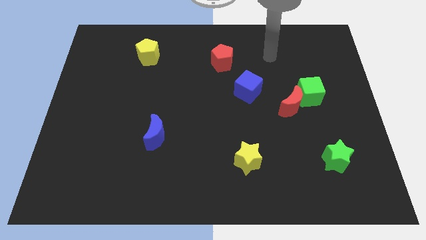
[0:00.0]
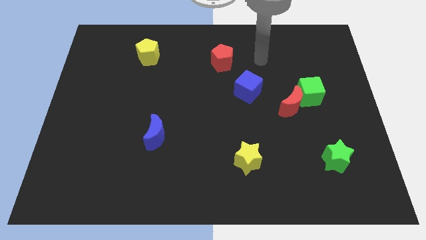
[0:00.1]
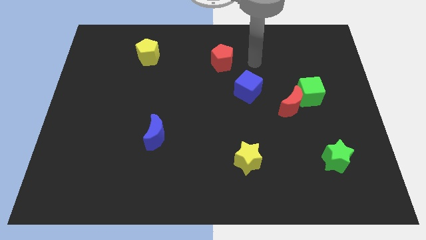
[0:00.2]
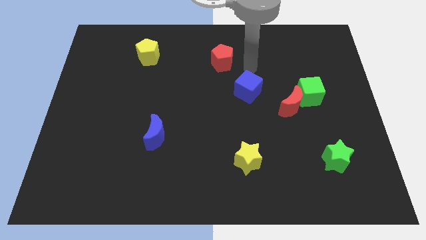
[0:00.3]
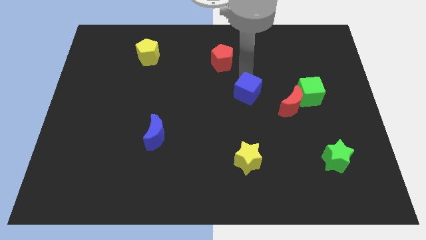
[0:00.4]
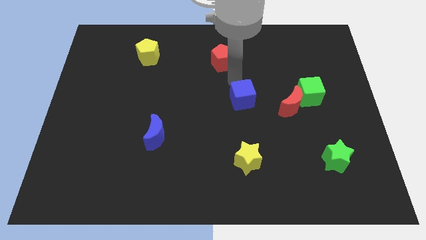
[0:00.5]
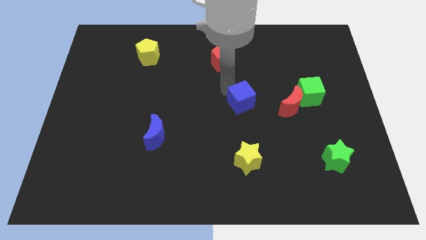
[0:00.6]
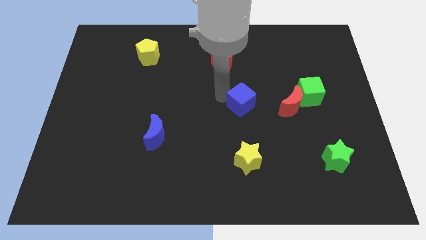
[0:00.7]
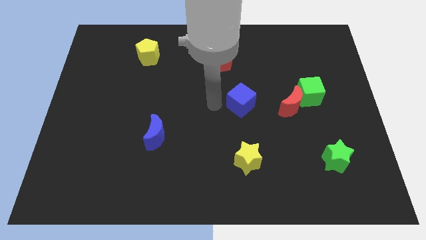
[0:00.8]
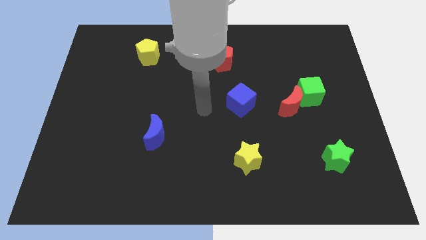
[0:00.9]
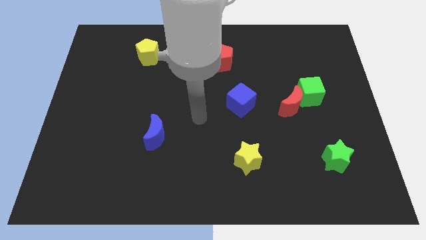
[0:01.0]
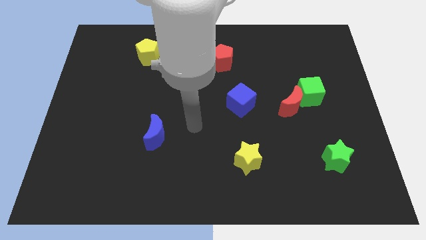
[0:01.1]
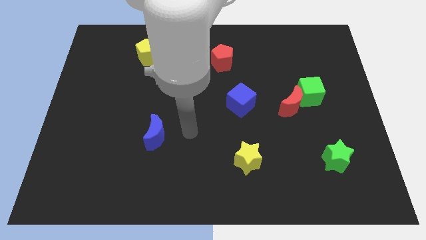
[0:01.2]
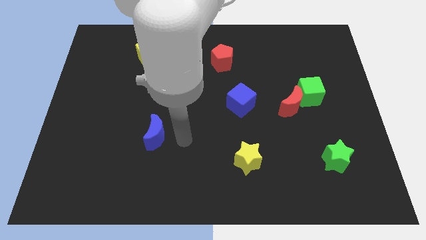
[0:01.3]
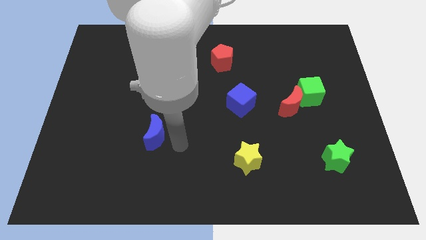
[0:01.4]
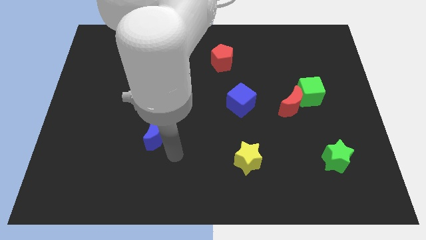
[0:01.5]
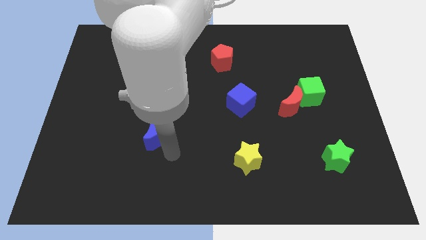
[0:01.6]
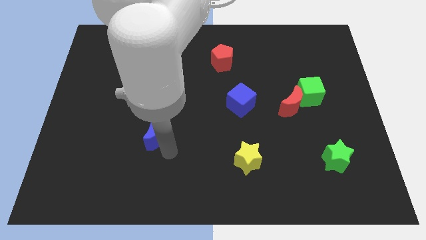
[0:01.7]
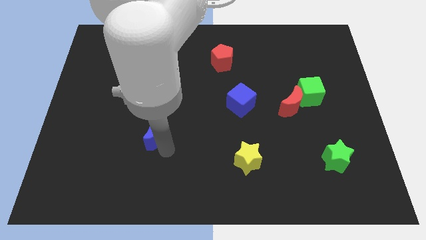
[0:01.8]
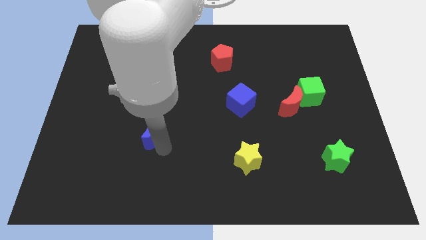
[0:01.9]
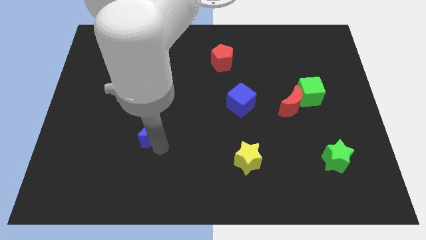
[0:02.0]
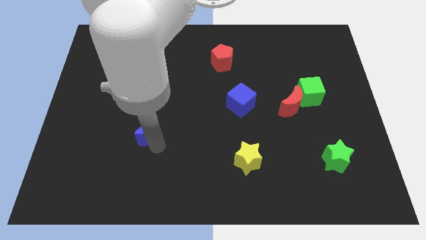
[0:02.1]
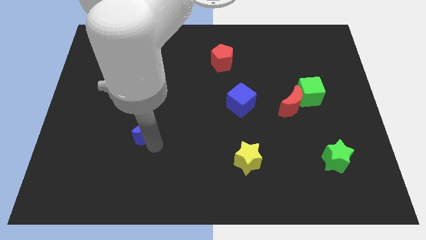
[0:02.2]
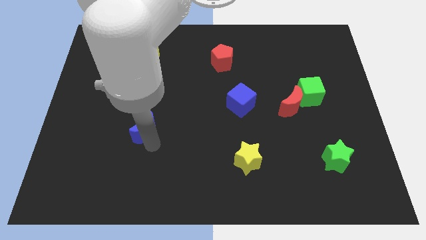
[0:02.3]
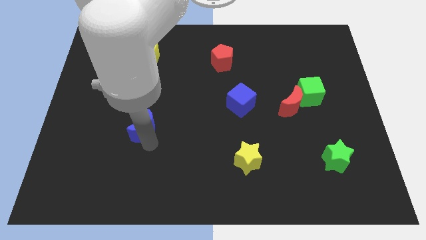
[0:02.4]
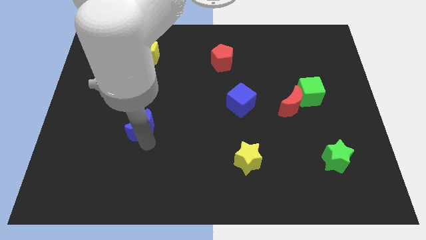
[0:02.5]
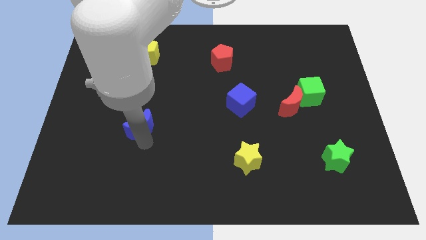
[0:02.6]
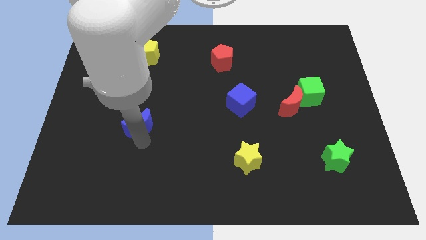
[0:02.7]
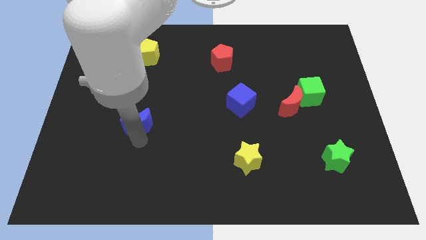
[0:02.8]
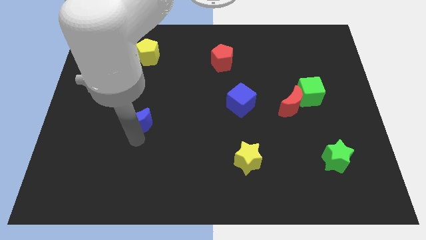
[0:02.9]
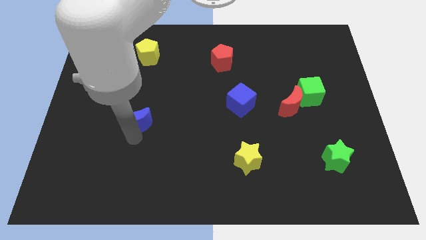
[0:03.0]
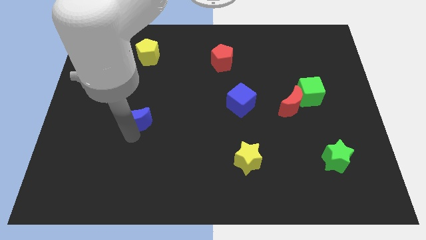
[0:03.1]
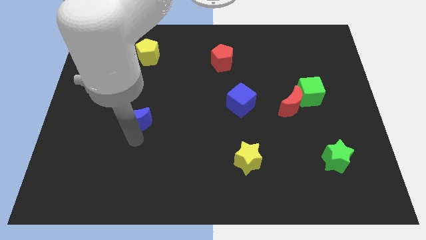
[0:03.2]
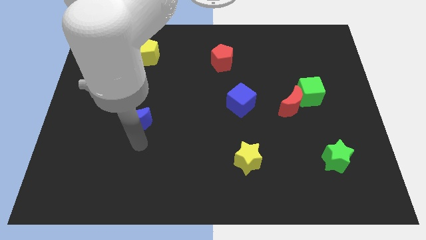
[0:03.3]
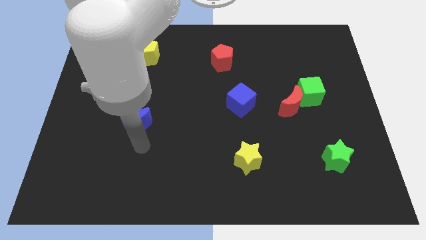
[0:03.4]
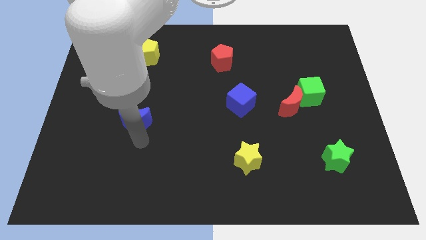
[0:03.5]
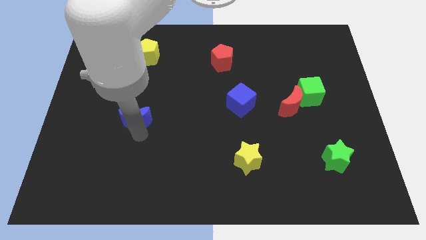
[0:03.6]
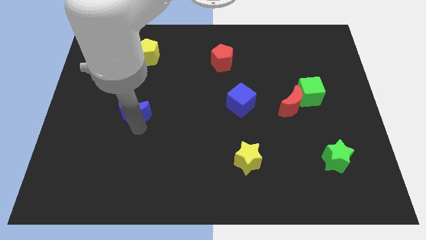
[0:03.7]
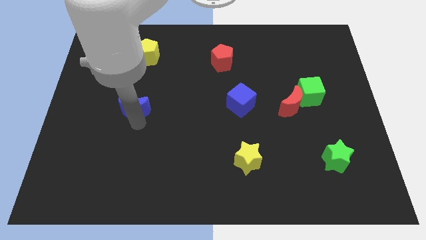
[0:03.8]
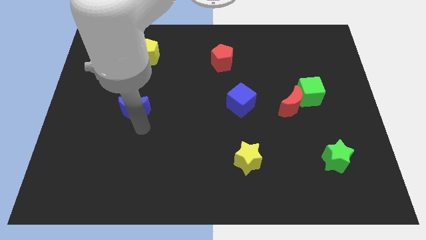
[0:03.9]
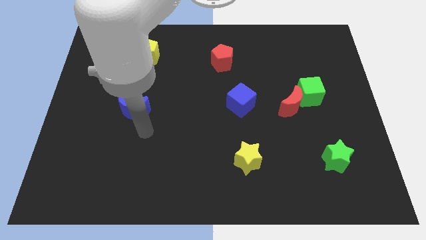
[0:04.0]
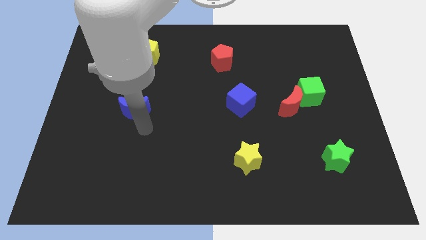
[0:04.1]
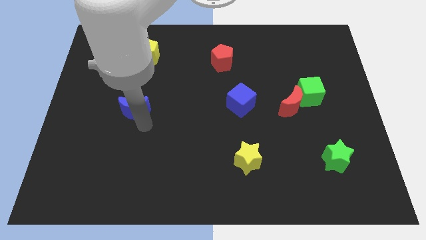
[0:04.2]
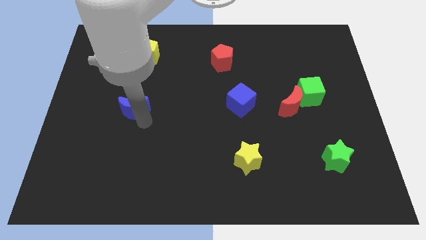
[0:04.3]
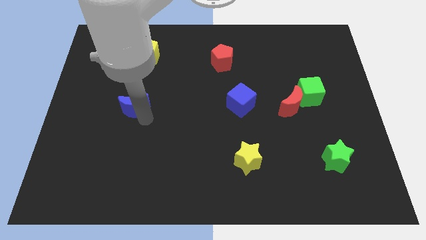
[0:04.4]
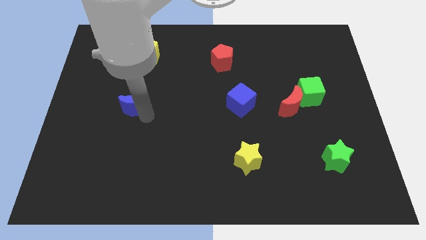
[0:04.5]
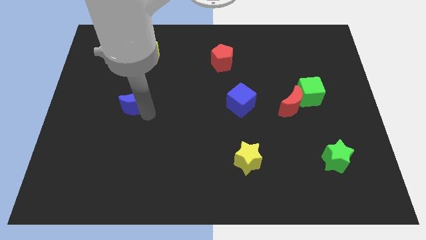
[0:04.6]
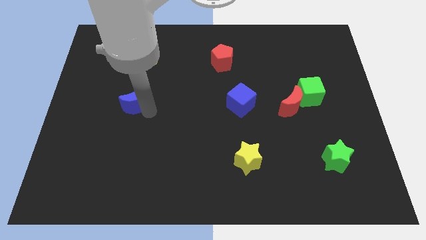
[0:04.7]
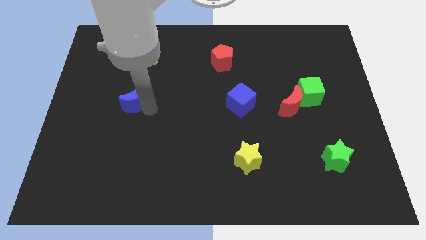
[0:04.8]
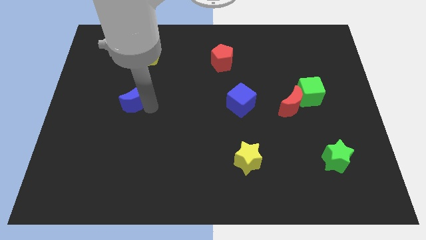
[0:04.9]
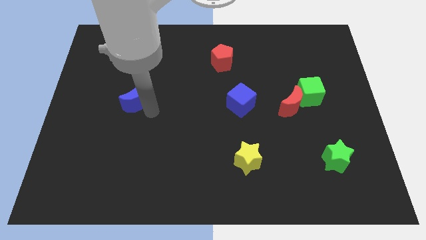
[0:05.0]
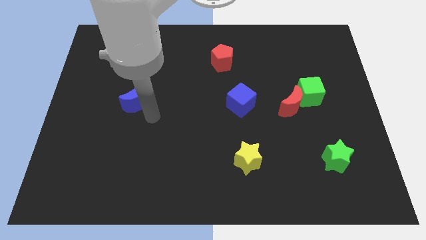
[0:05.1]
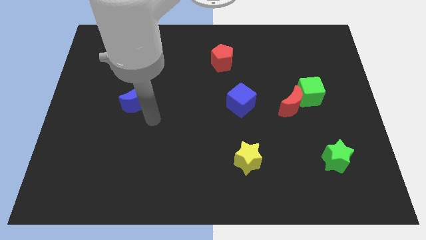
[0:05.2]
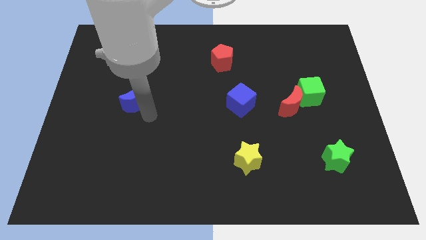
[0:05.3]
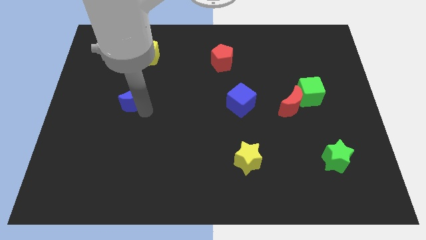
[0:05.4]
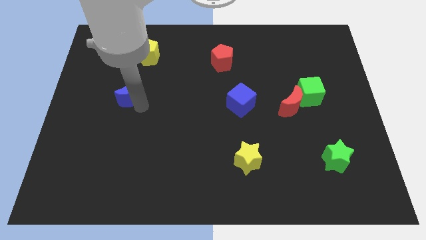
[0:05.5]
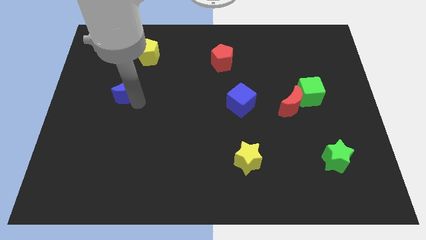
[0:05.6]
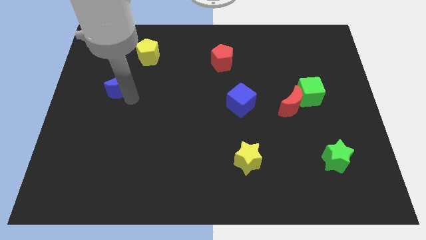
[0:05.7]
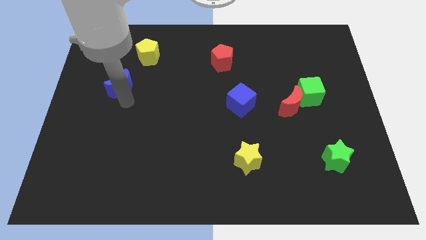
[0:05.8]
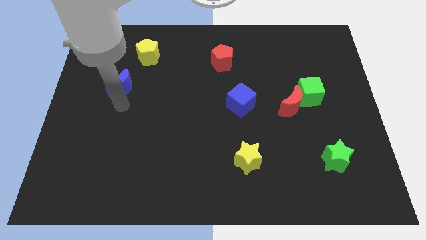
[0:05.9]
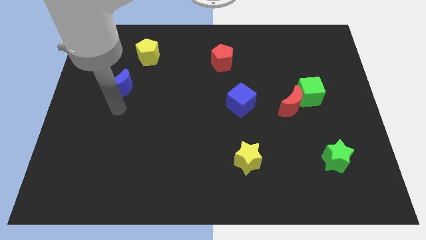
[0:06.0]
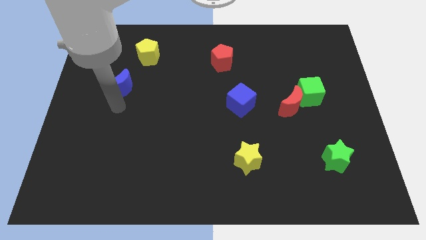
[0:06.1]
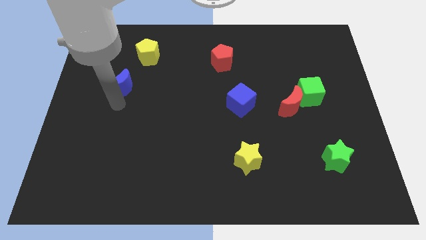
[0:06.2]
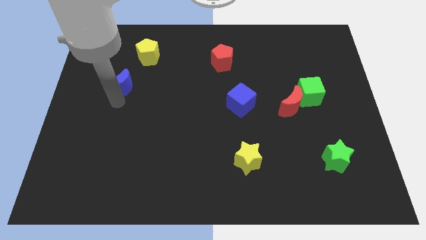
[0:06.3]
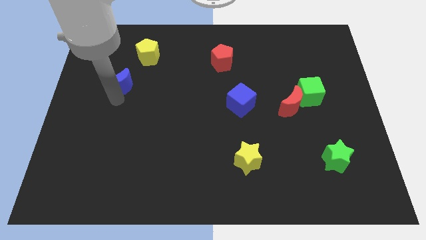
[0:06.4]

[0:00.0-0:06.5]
move the blue moon to the bottom left of the yellow pentagon
